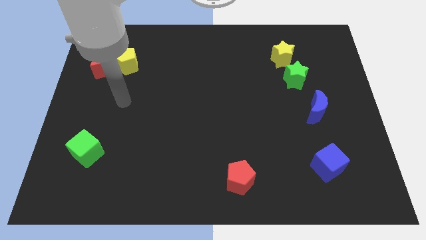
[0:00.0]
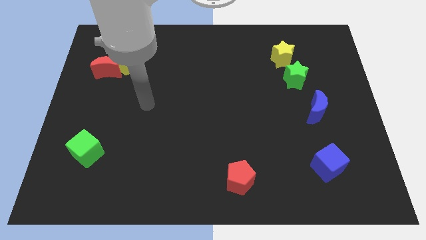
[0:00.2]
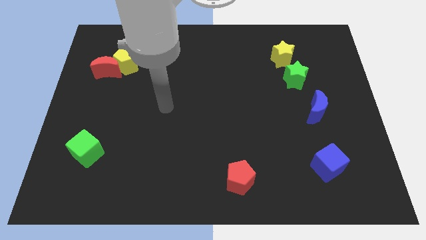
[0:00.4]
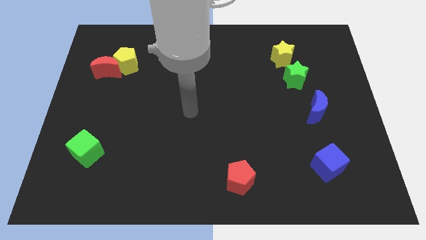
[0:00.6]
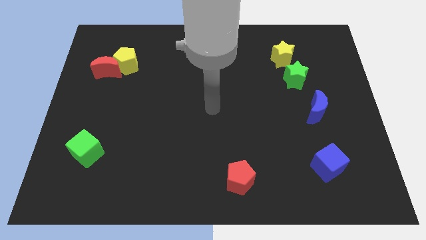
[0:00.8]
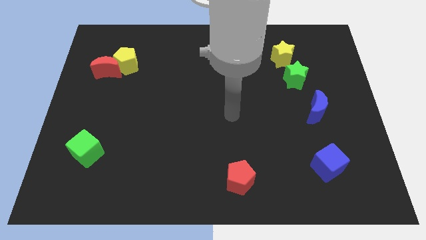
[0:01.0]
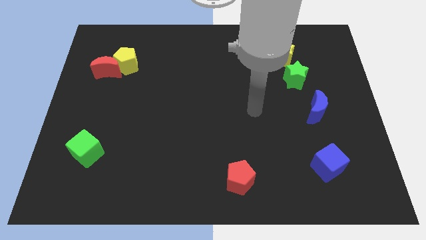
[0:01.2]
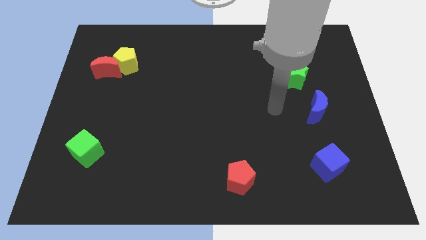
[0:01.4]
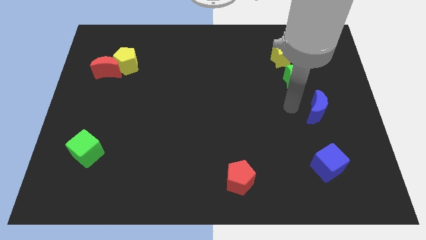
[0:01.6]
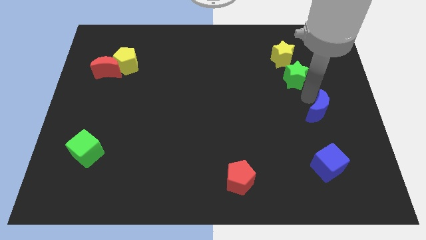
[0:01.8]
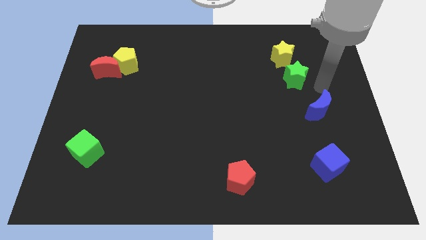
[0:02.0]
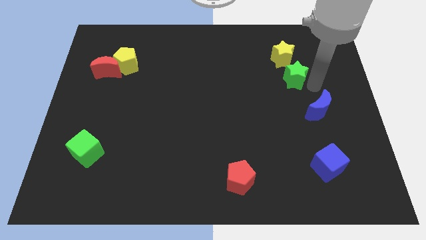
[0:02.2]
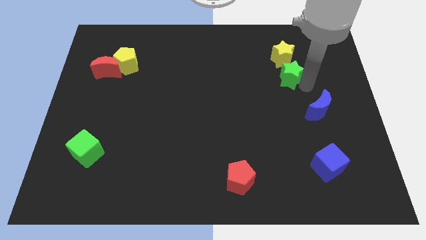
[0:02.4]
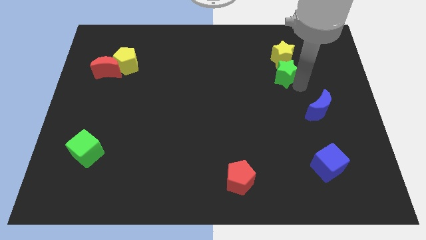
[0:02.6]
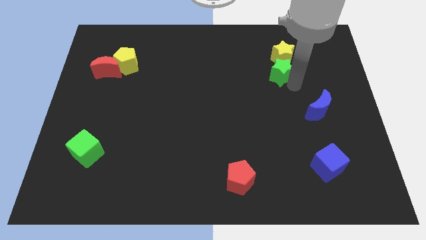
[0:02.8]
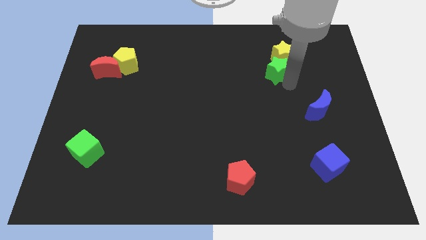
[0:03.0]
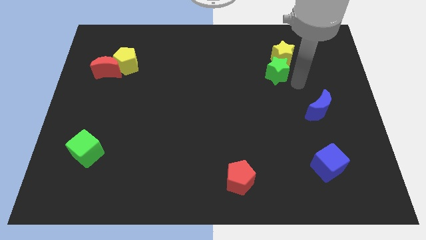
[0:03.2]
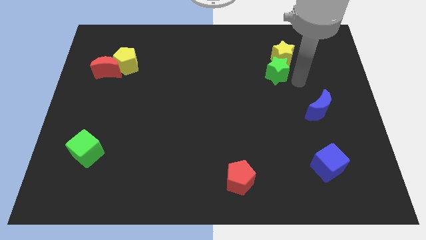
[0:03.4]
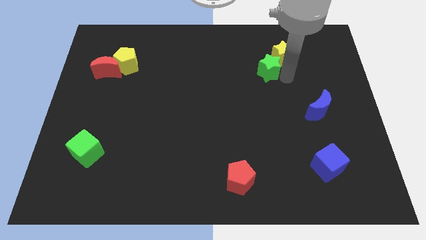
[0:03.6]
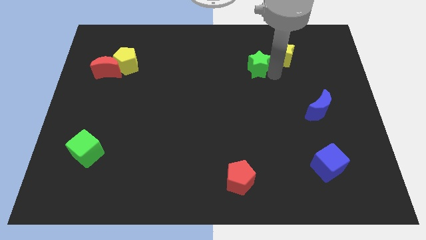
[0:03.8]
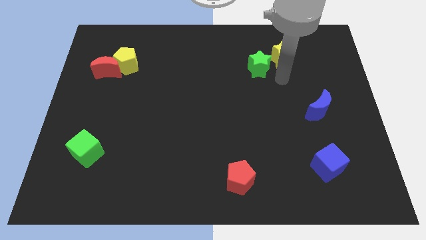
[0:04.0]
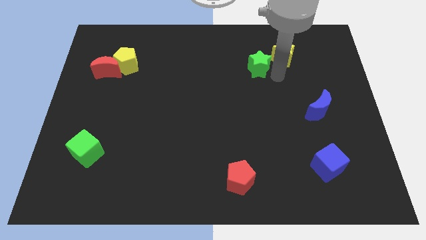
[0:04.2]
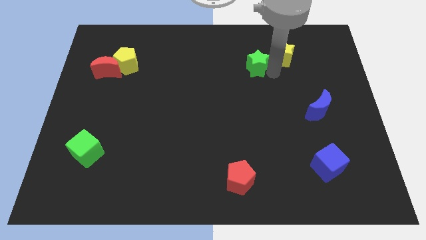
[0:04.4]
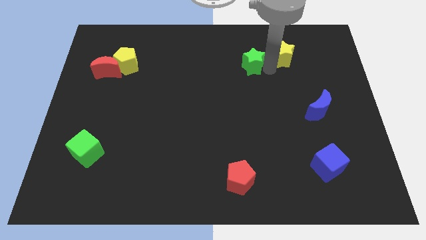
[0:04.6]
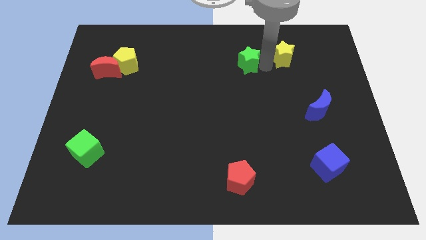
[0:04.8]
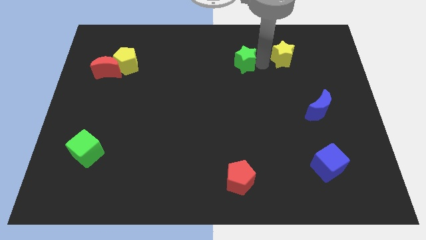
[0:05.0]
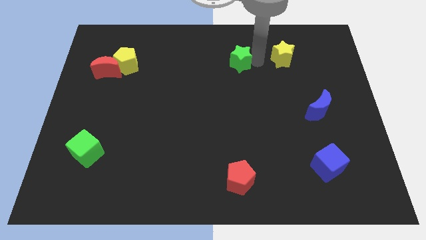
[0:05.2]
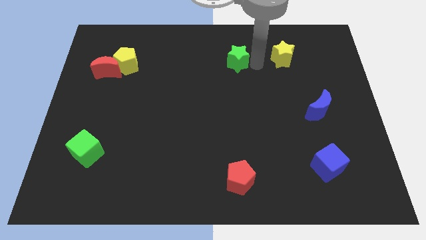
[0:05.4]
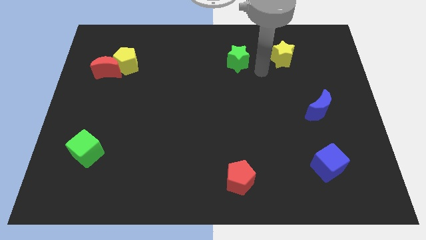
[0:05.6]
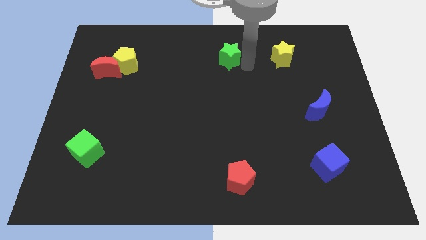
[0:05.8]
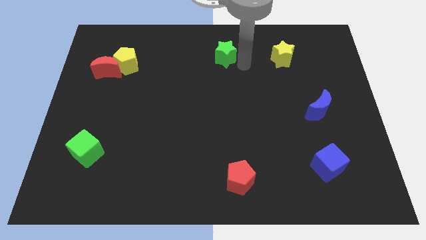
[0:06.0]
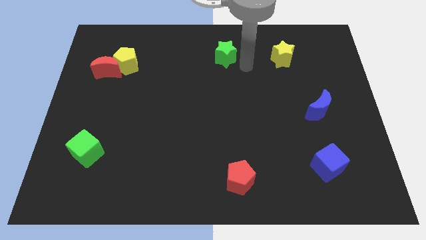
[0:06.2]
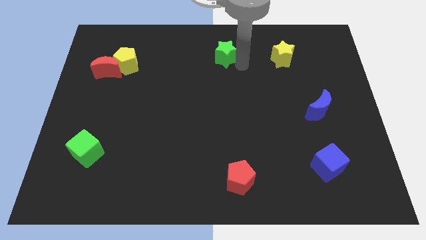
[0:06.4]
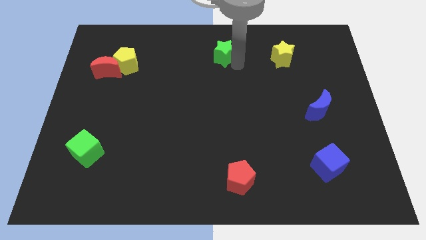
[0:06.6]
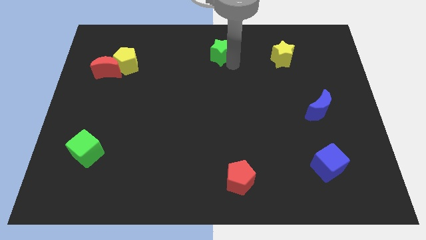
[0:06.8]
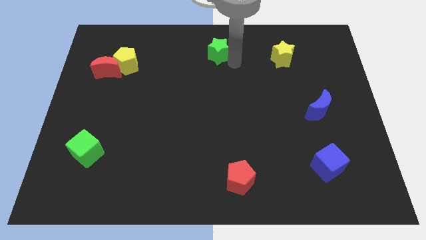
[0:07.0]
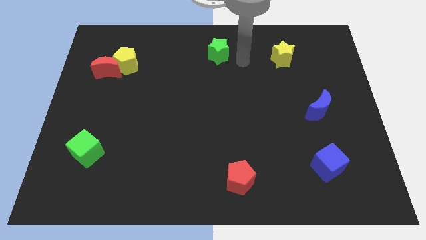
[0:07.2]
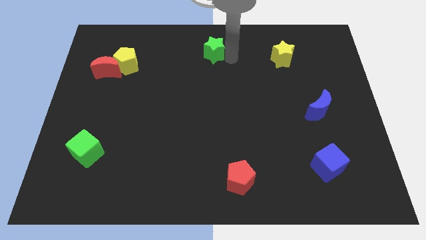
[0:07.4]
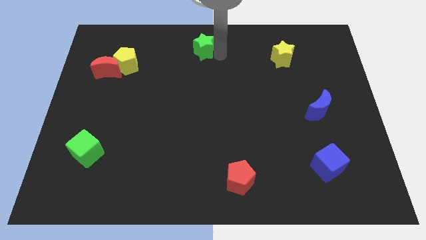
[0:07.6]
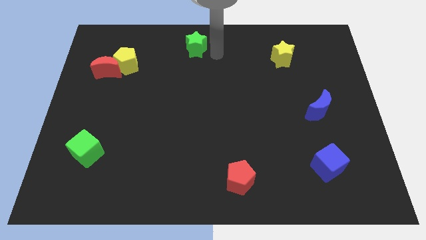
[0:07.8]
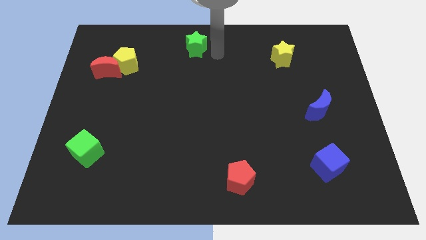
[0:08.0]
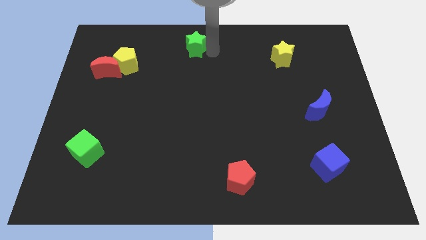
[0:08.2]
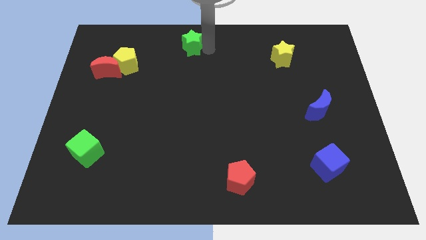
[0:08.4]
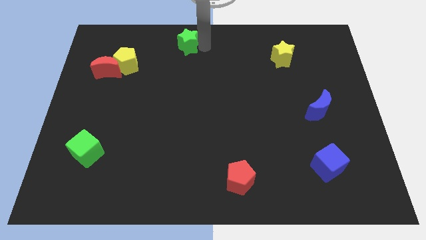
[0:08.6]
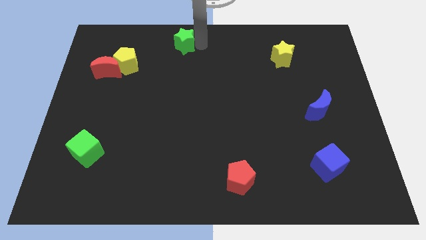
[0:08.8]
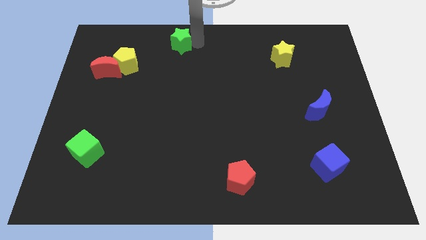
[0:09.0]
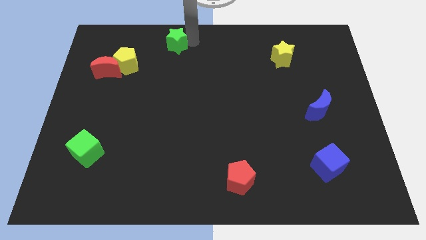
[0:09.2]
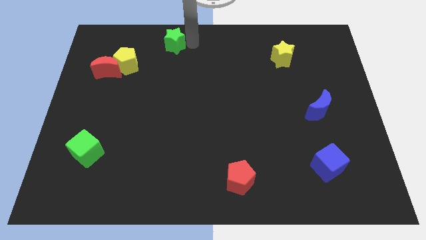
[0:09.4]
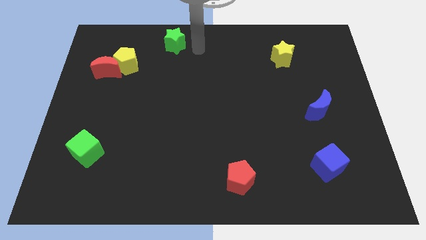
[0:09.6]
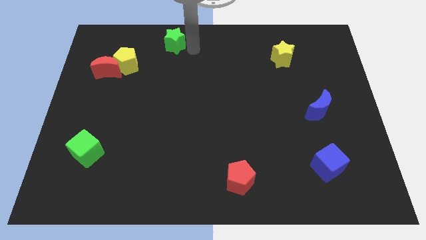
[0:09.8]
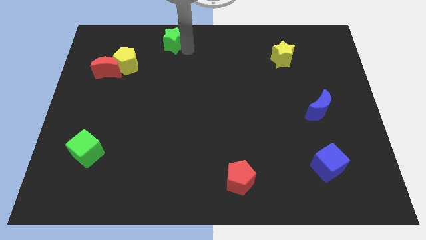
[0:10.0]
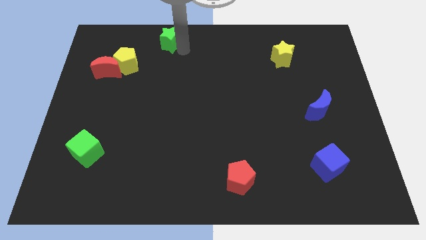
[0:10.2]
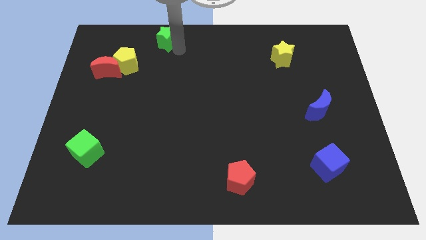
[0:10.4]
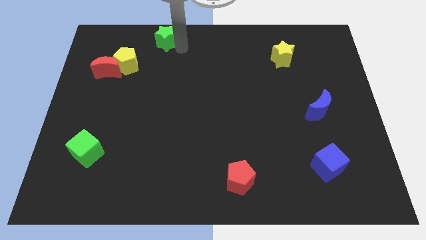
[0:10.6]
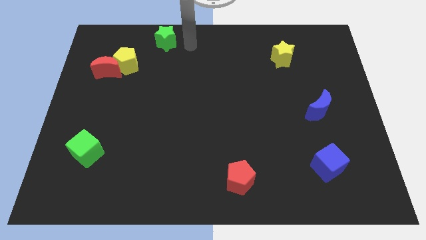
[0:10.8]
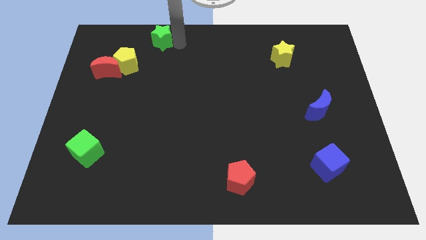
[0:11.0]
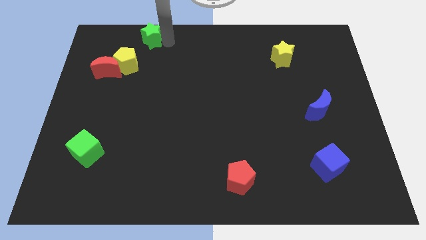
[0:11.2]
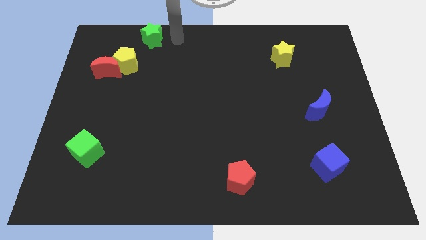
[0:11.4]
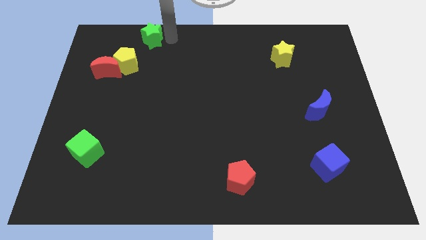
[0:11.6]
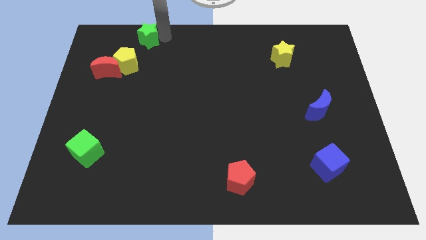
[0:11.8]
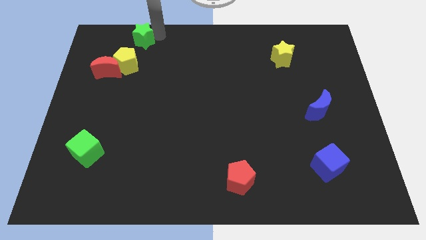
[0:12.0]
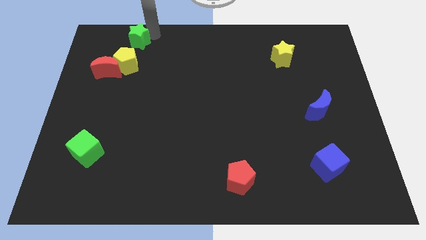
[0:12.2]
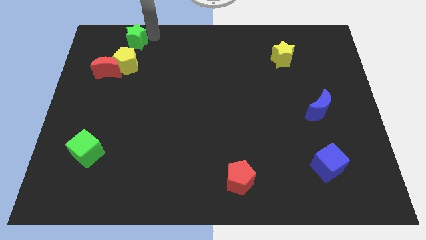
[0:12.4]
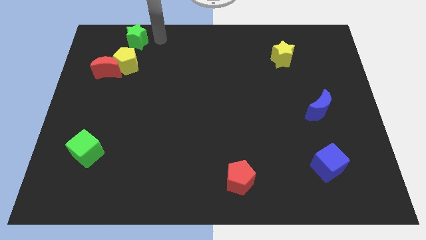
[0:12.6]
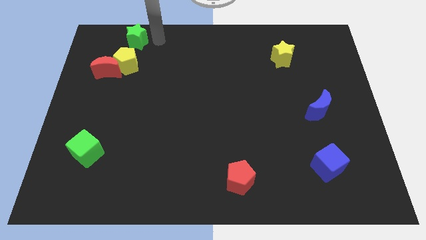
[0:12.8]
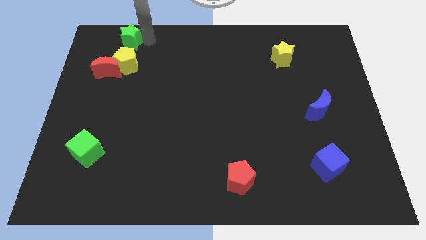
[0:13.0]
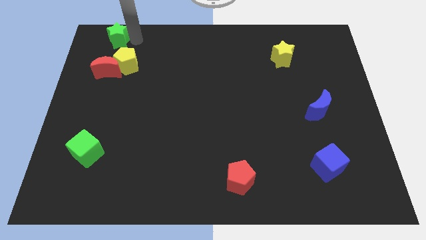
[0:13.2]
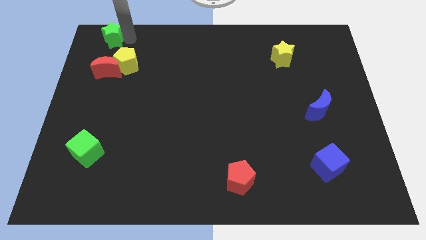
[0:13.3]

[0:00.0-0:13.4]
put the green star to the top left of the board

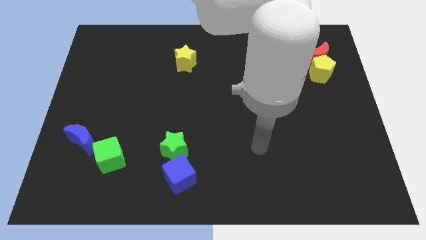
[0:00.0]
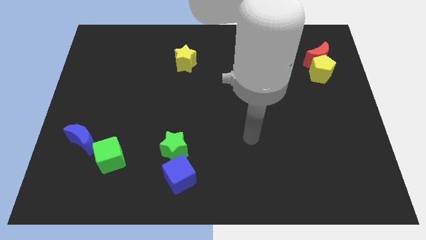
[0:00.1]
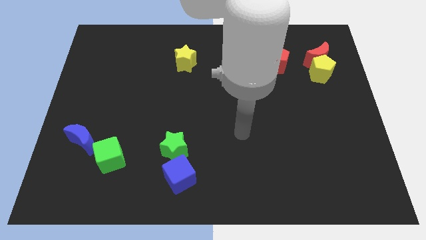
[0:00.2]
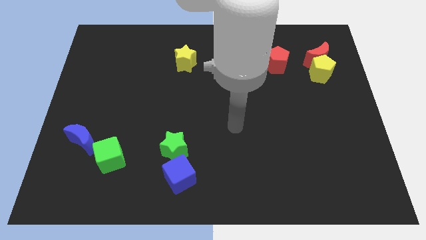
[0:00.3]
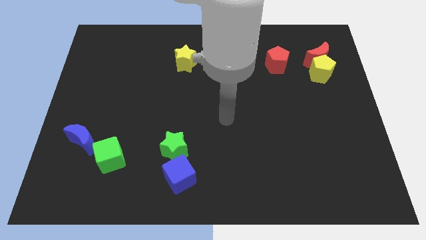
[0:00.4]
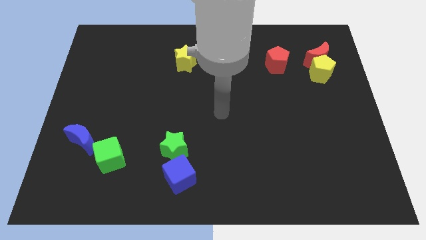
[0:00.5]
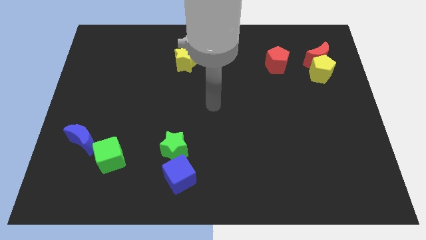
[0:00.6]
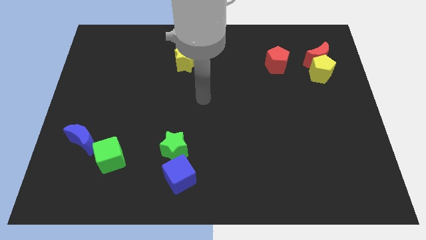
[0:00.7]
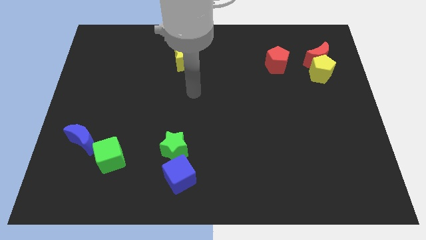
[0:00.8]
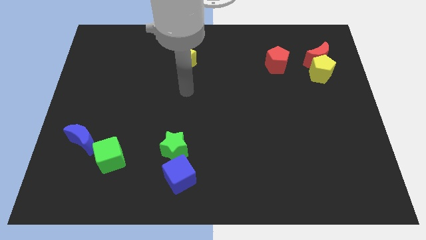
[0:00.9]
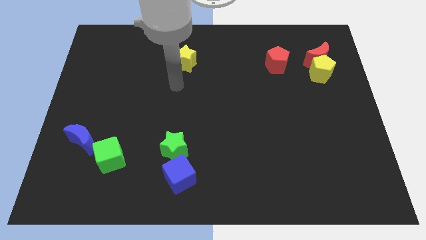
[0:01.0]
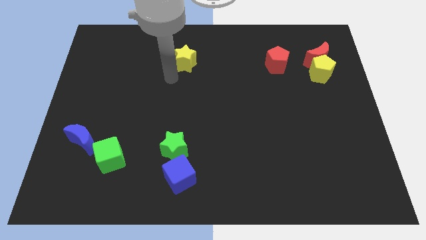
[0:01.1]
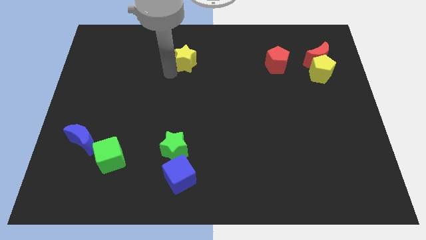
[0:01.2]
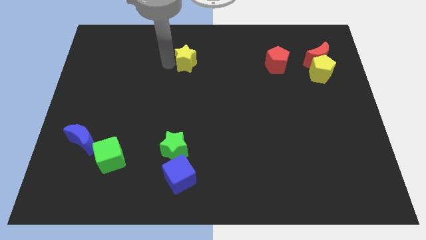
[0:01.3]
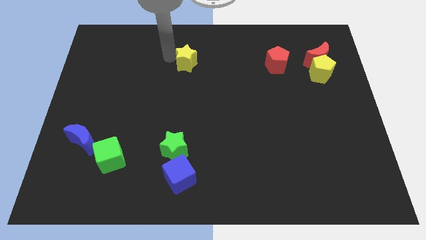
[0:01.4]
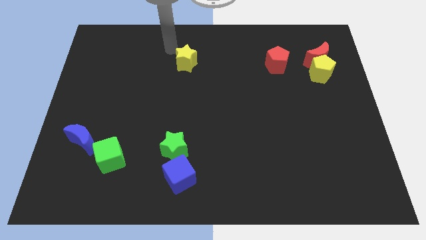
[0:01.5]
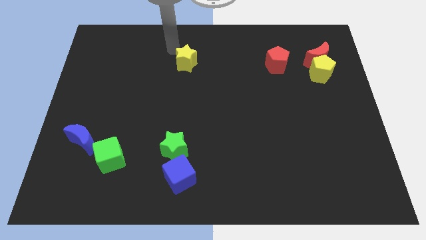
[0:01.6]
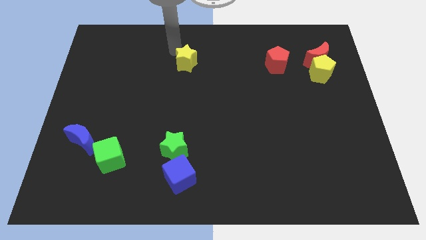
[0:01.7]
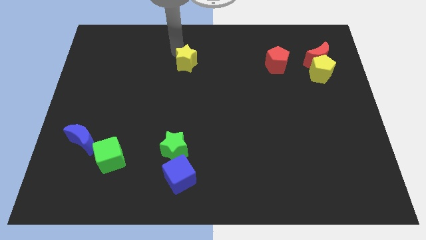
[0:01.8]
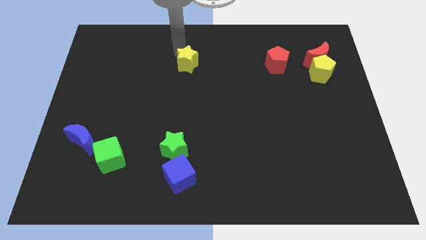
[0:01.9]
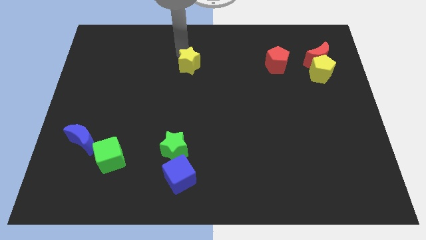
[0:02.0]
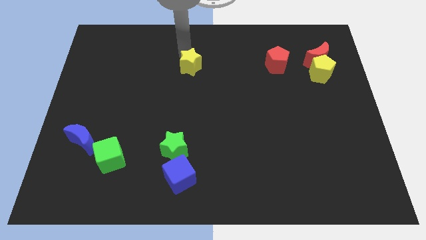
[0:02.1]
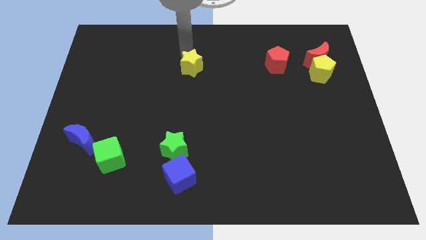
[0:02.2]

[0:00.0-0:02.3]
put the yellow star to the center of the board
